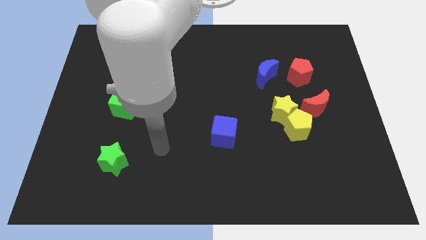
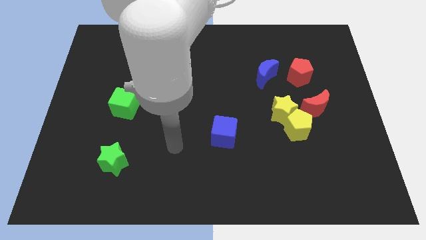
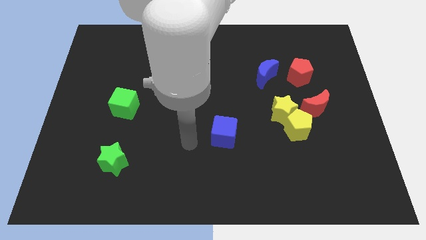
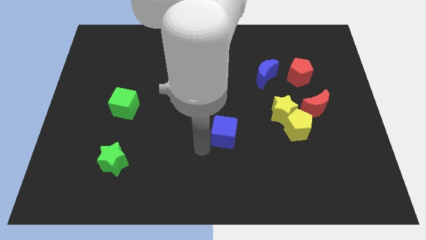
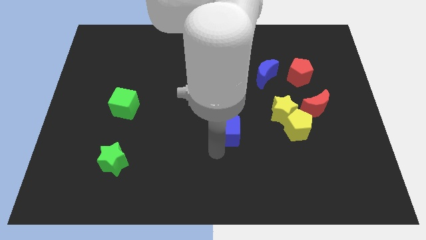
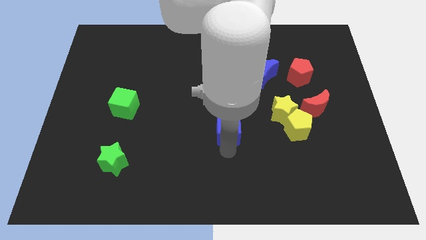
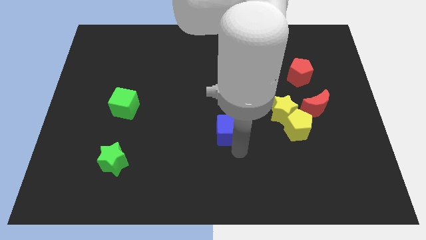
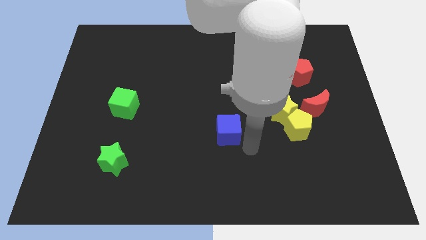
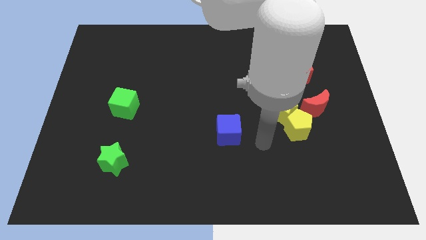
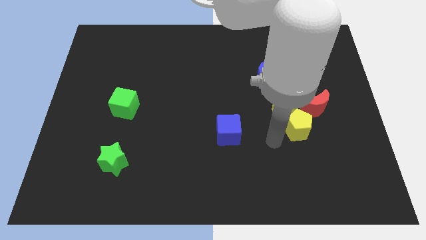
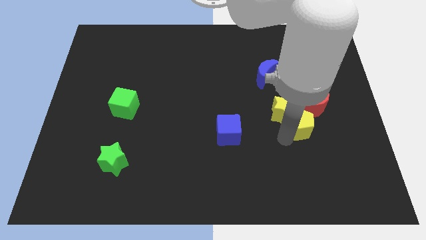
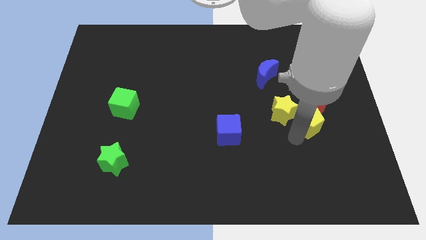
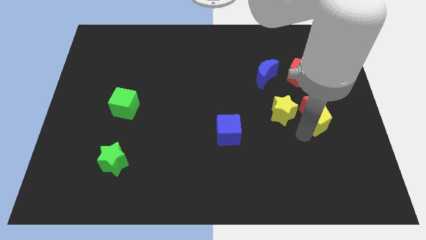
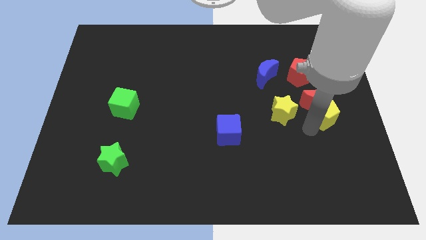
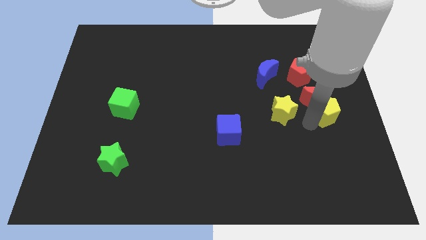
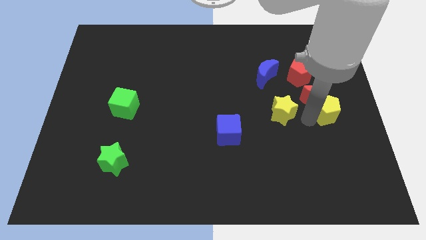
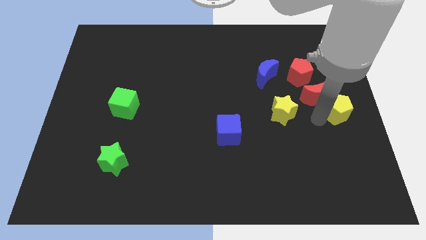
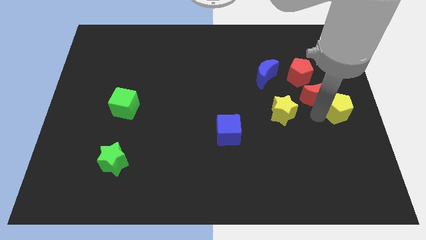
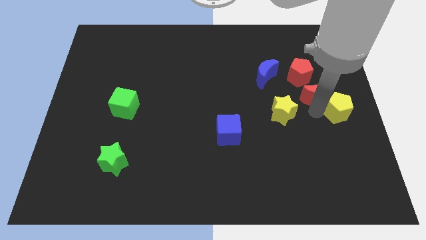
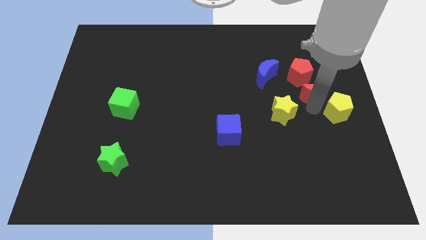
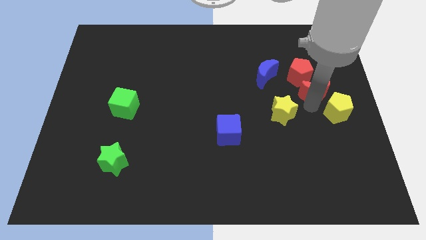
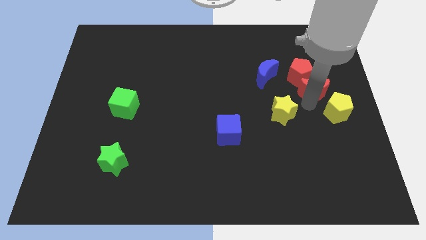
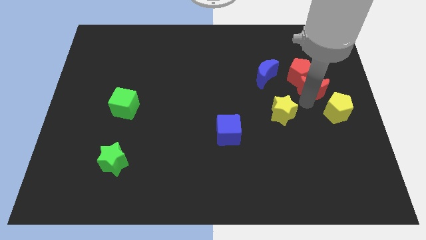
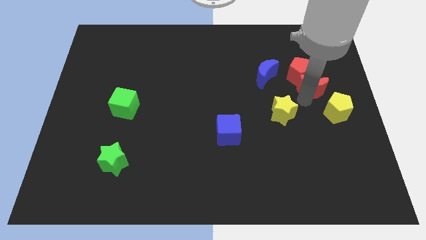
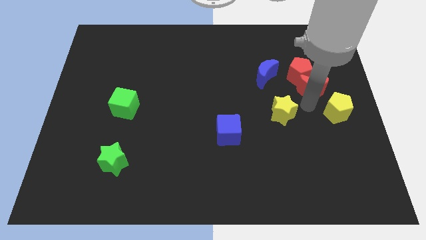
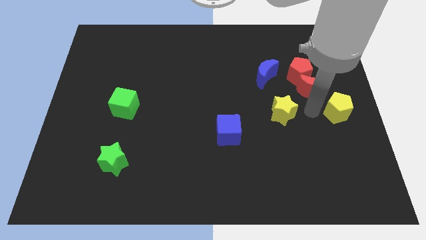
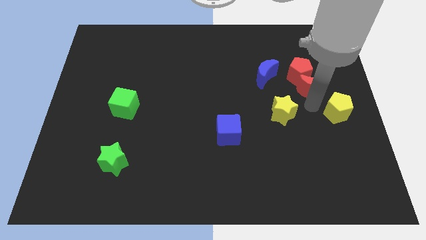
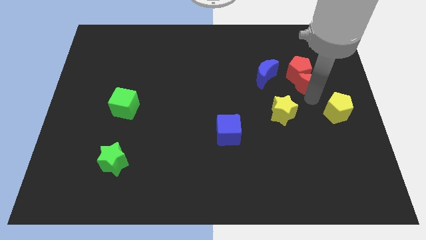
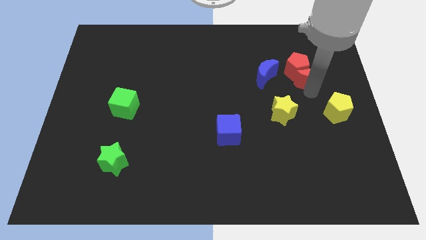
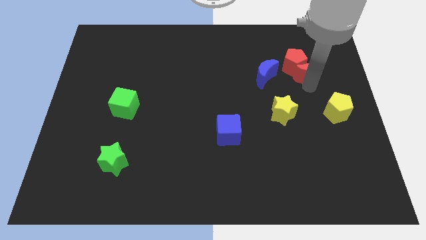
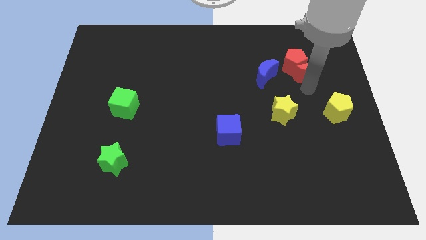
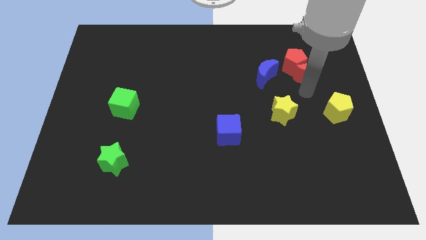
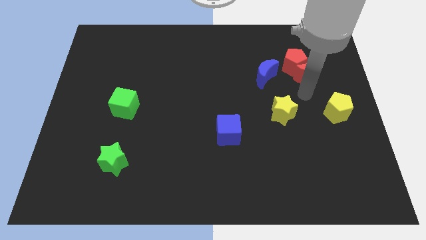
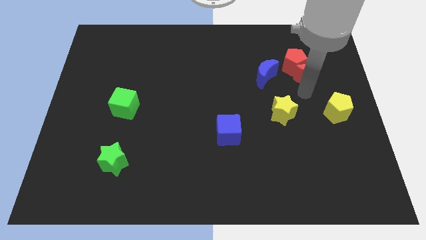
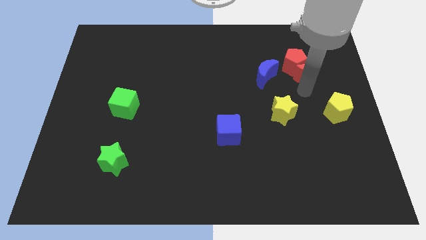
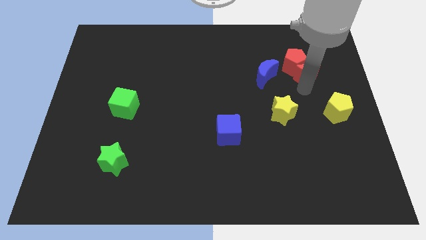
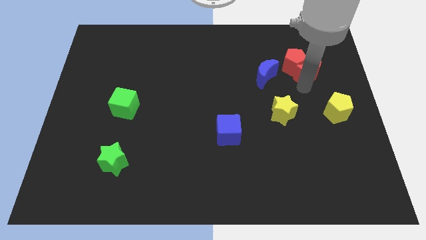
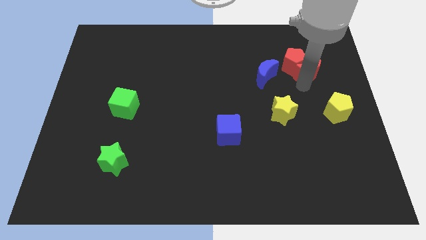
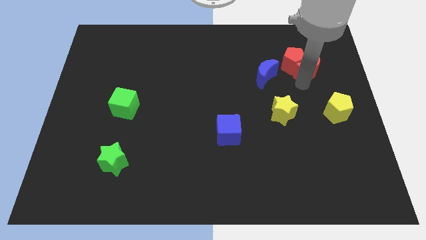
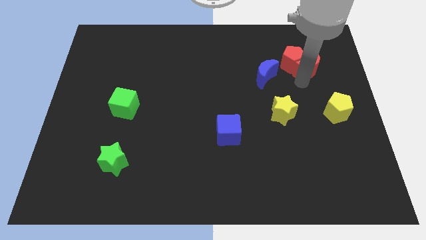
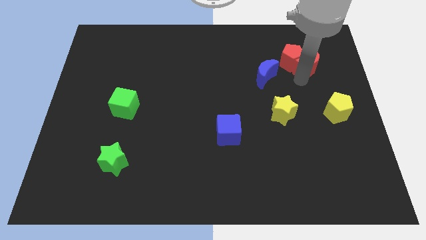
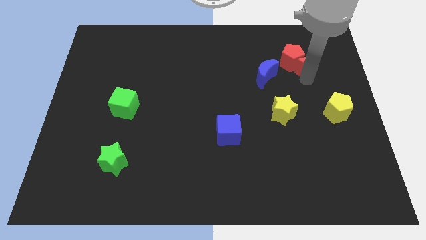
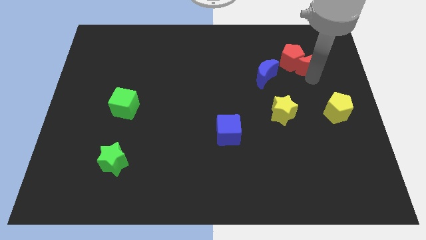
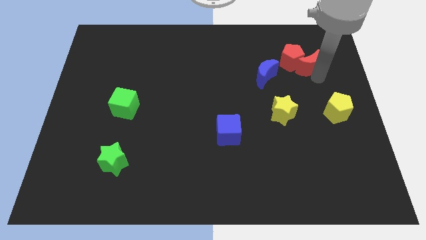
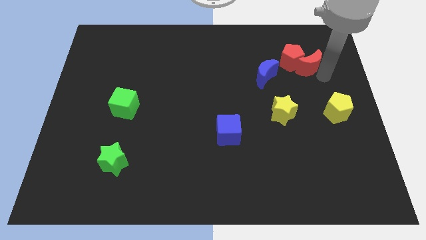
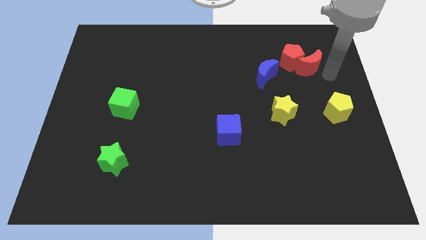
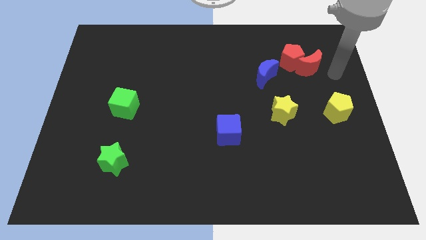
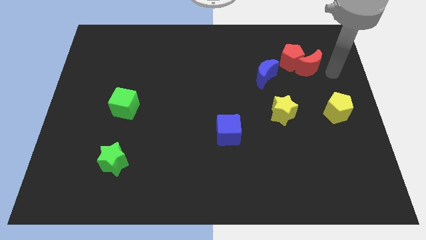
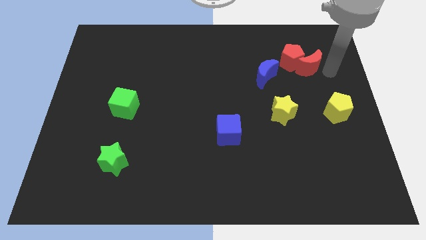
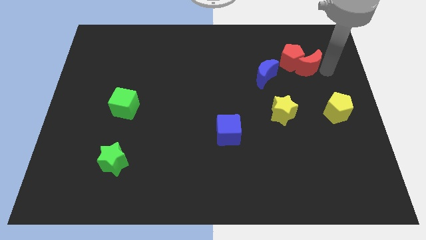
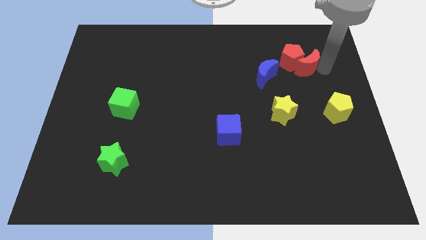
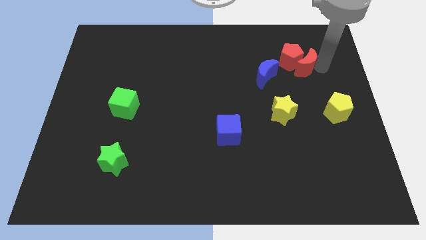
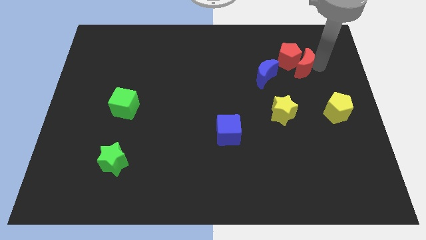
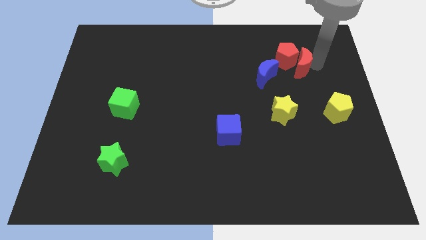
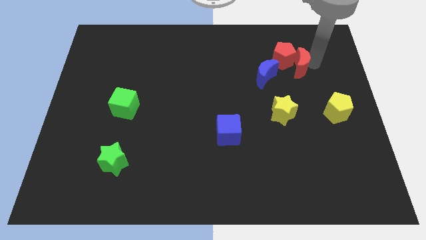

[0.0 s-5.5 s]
push the red moon diagonally up and to the right of the blue moon

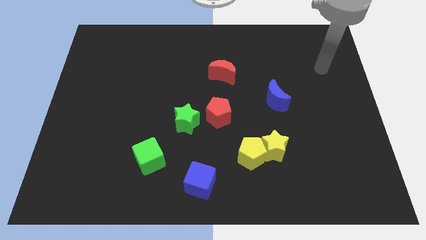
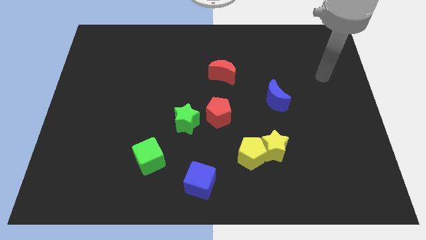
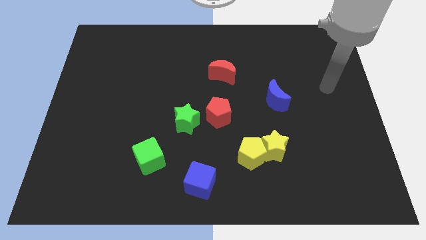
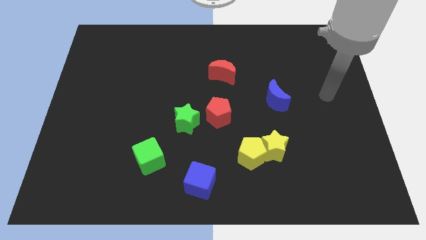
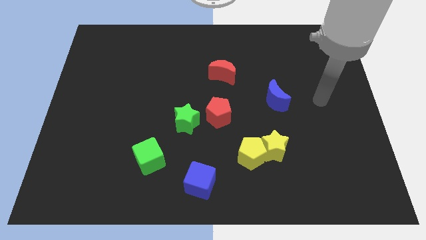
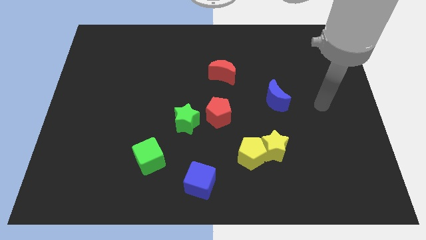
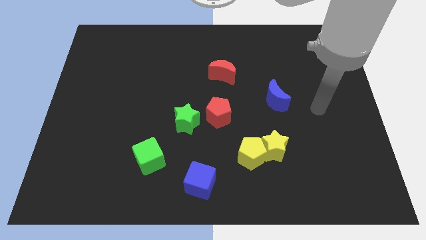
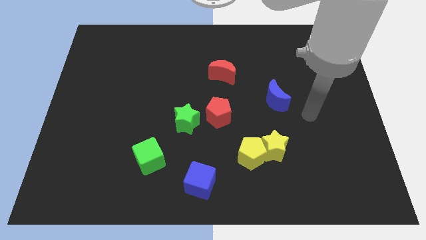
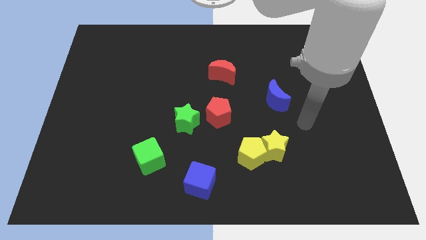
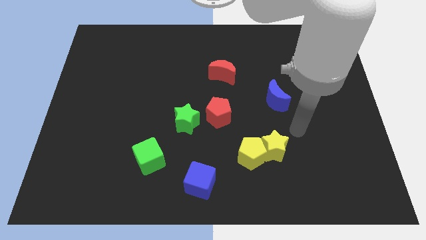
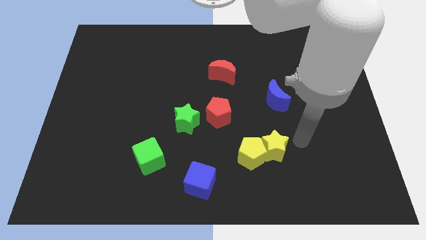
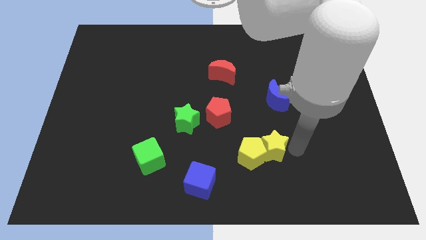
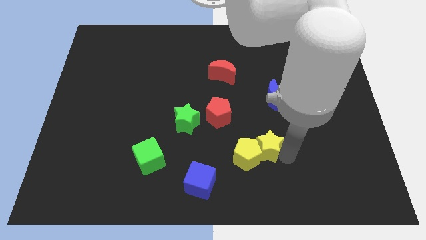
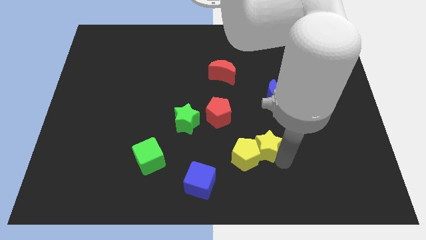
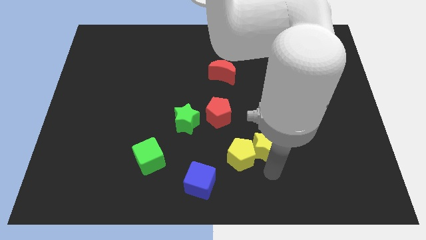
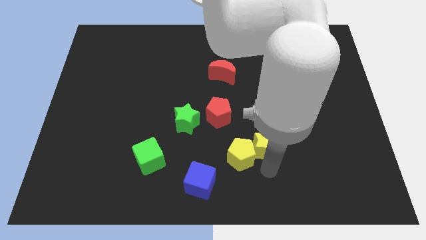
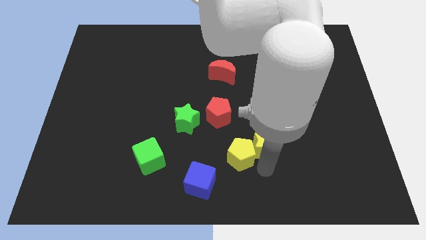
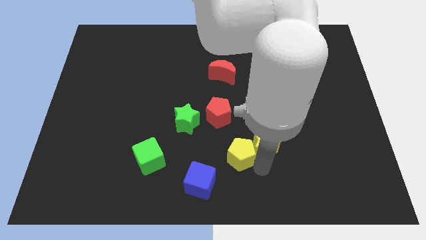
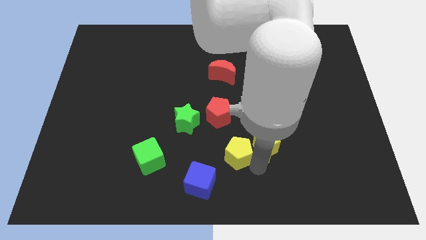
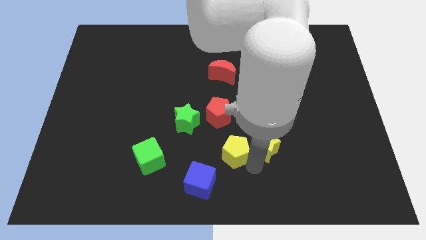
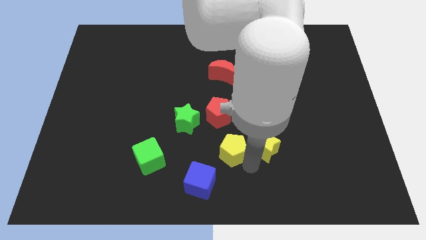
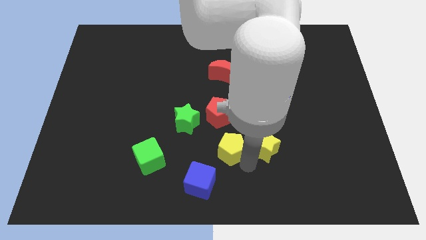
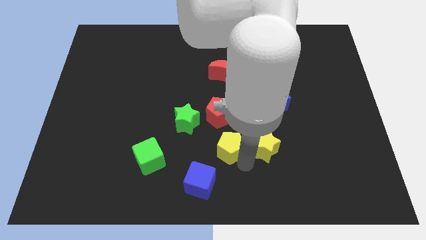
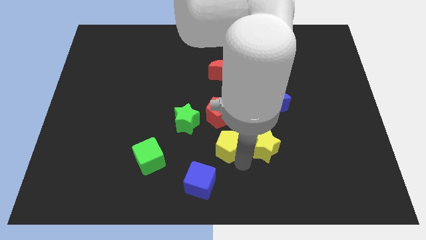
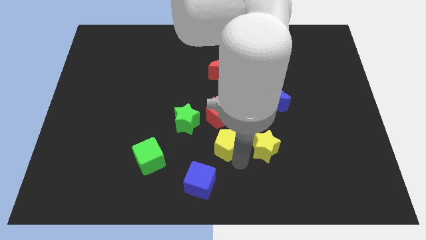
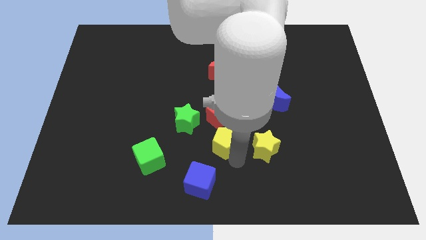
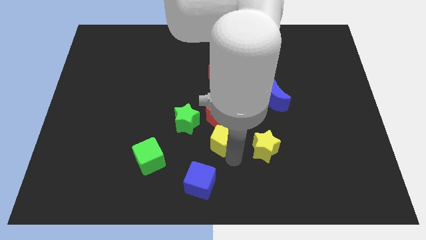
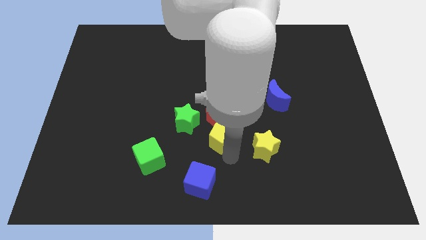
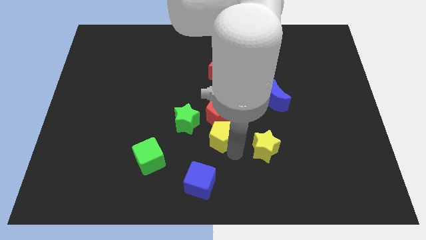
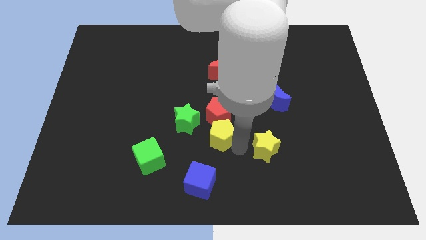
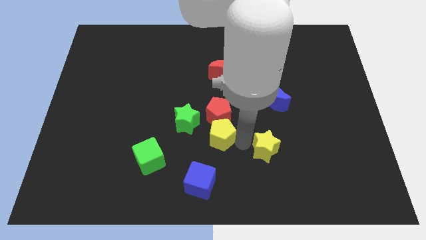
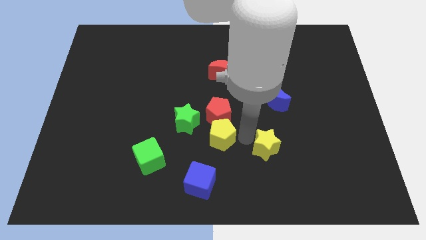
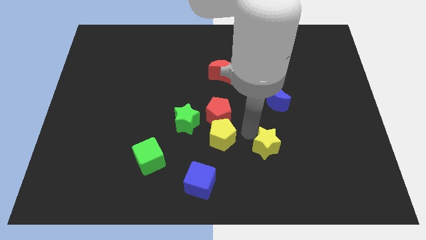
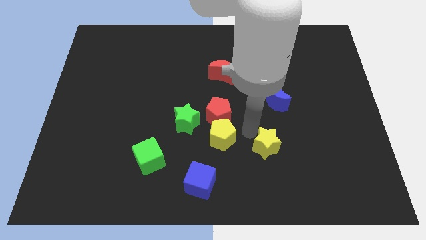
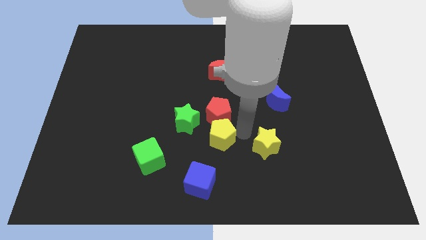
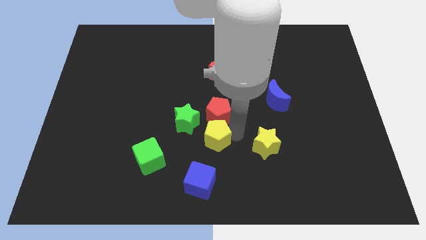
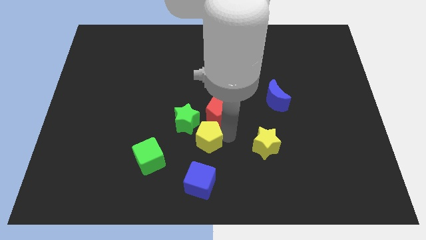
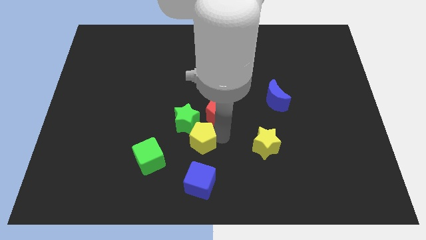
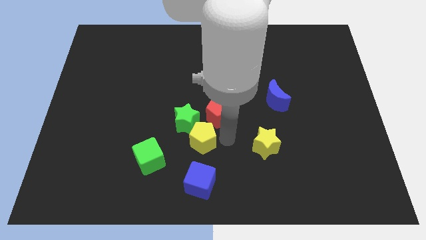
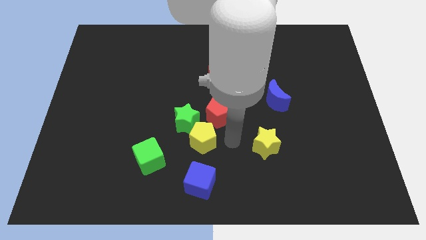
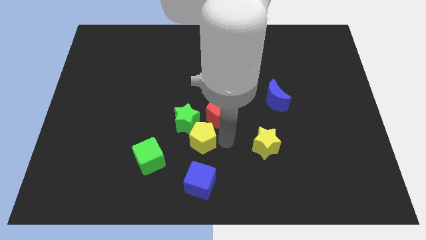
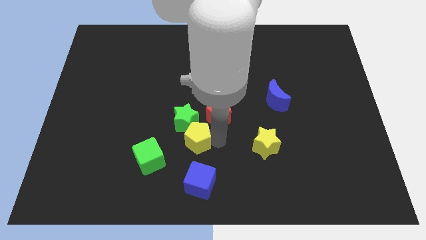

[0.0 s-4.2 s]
move the yellow pentagon to the top right side of the green cube
